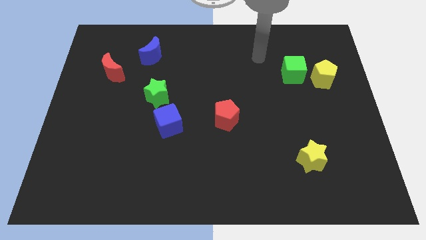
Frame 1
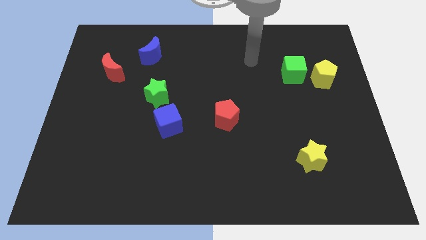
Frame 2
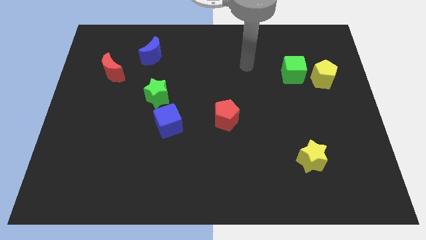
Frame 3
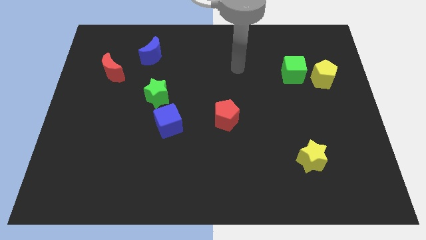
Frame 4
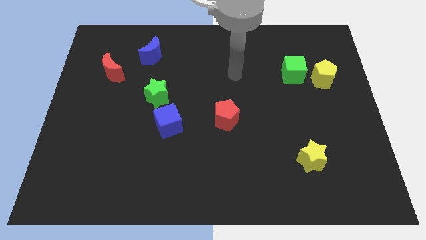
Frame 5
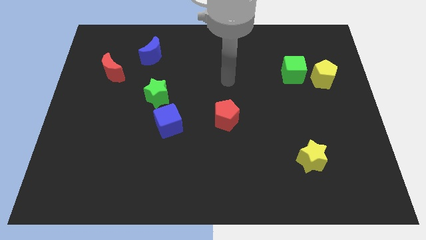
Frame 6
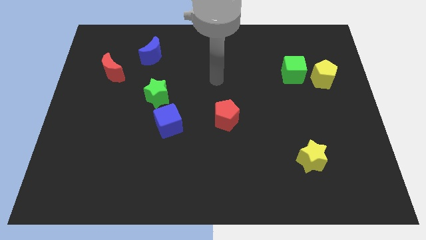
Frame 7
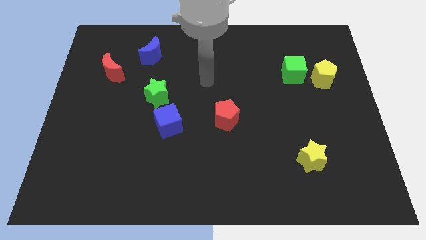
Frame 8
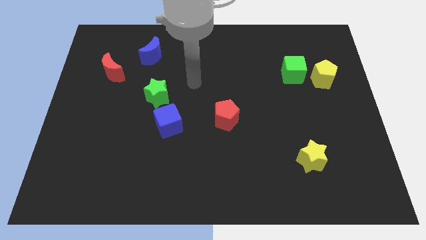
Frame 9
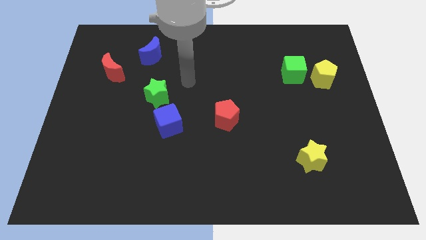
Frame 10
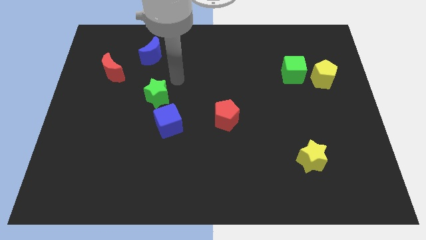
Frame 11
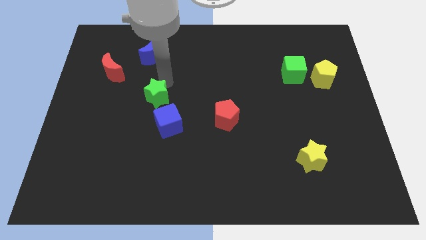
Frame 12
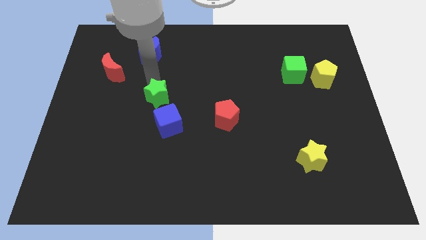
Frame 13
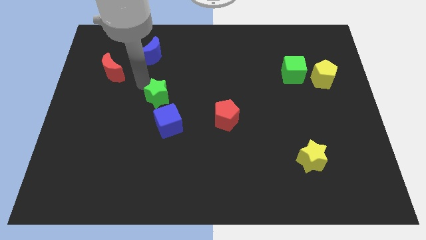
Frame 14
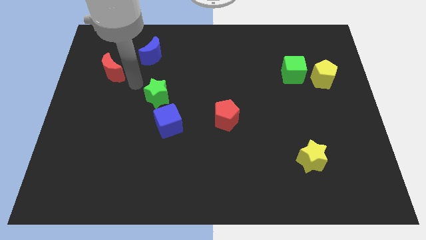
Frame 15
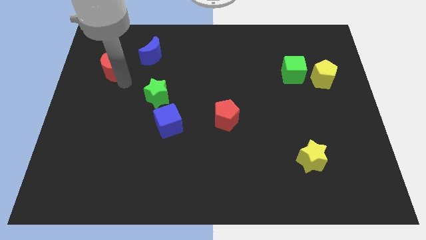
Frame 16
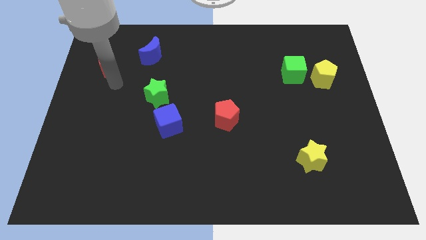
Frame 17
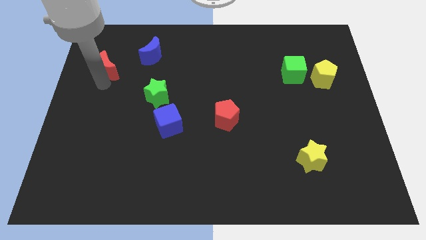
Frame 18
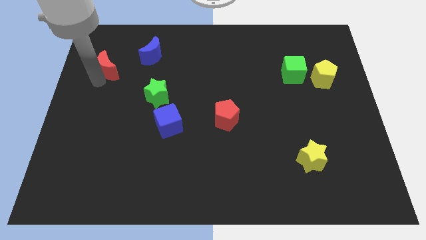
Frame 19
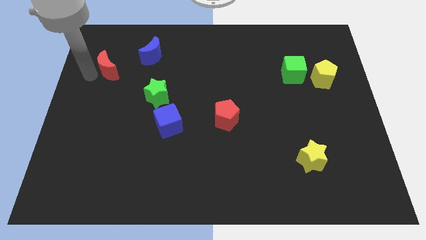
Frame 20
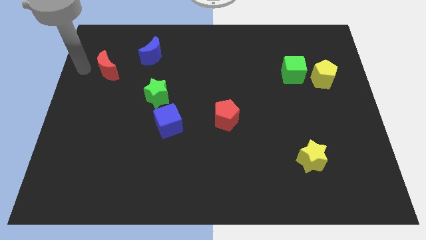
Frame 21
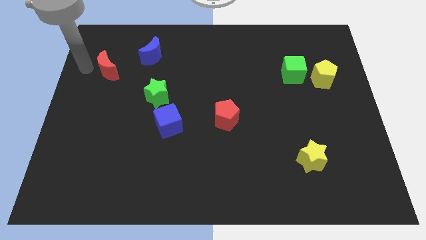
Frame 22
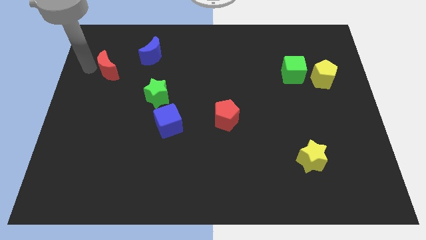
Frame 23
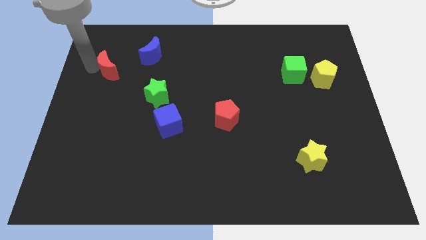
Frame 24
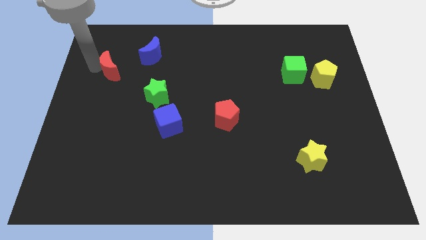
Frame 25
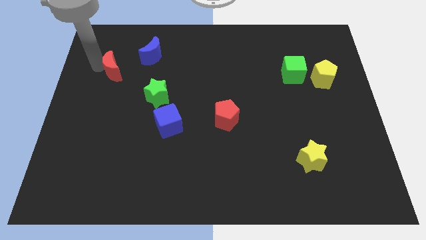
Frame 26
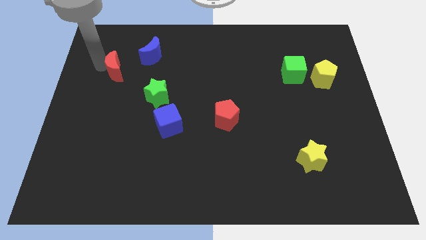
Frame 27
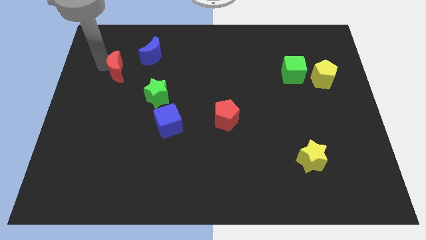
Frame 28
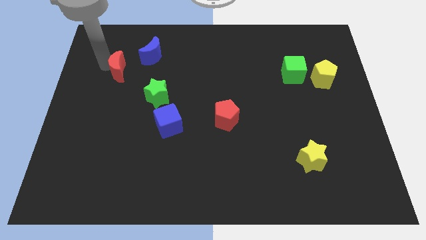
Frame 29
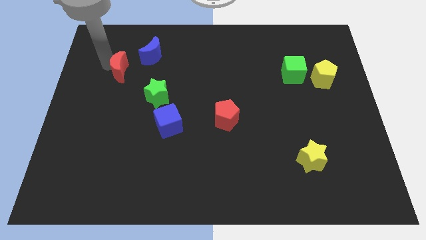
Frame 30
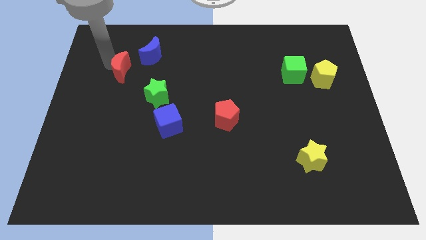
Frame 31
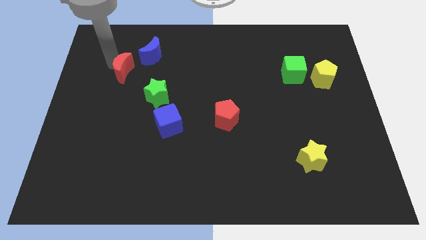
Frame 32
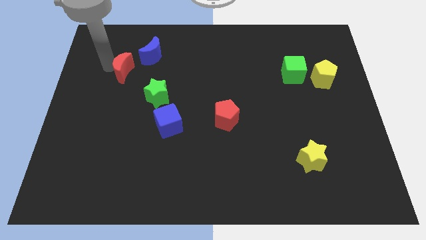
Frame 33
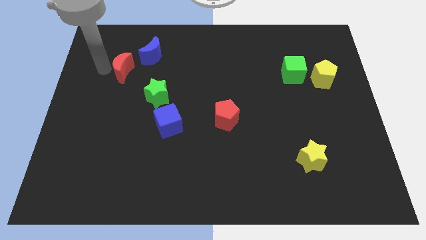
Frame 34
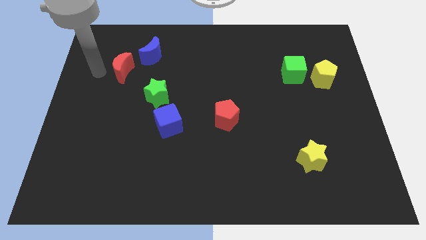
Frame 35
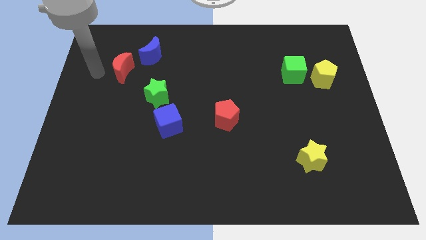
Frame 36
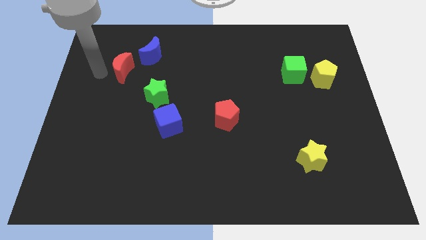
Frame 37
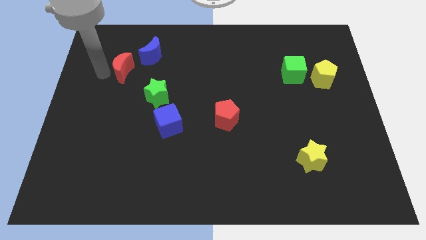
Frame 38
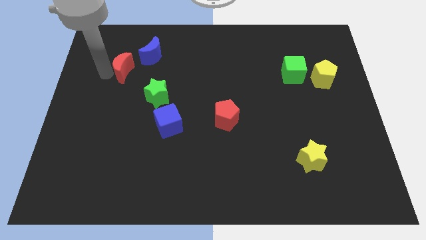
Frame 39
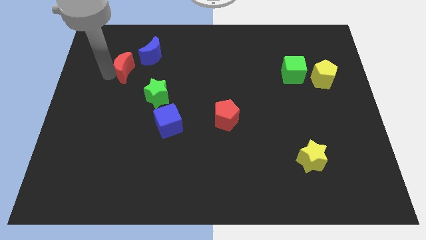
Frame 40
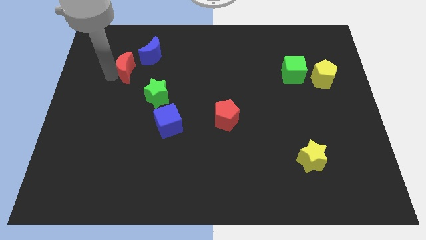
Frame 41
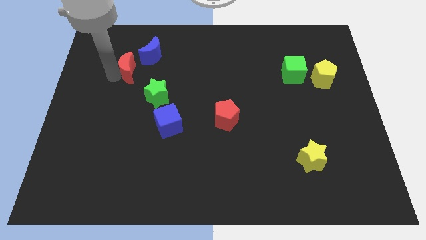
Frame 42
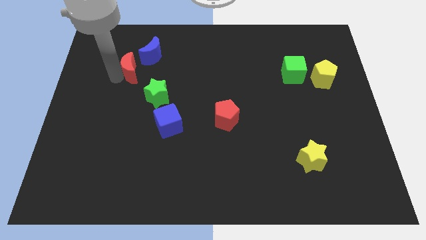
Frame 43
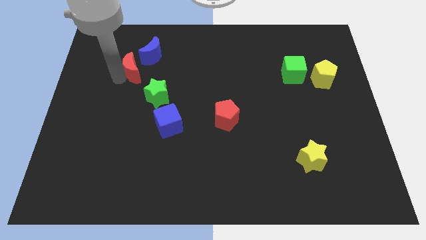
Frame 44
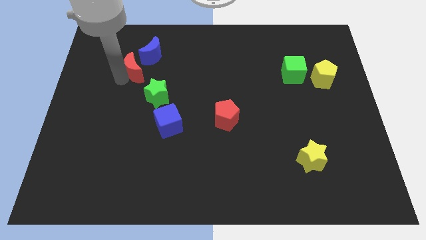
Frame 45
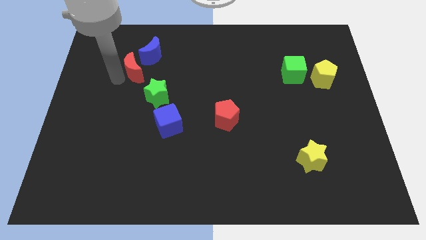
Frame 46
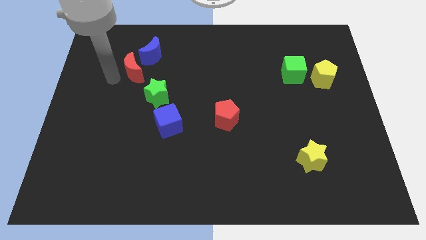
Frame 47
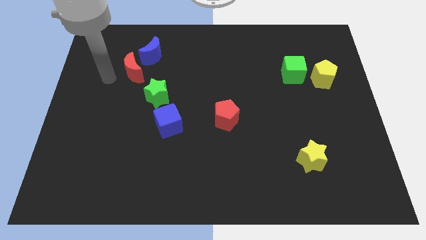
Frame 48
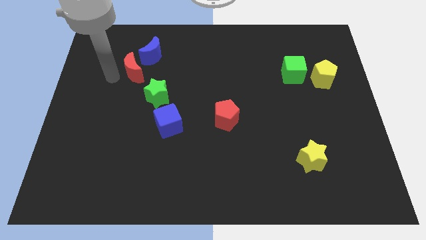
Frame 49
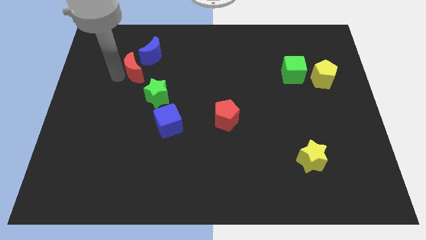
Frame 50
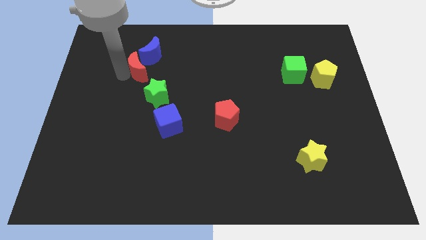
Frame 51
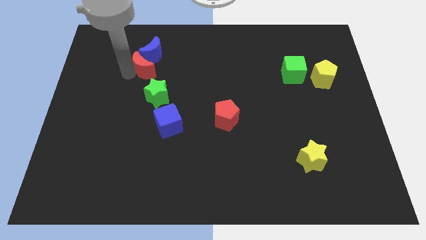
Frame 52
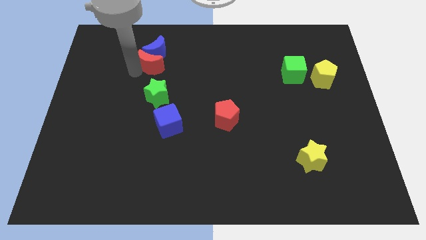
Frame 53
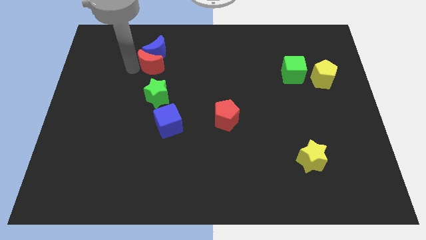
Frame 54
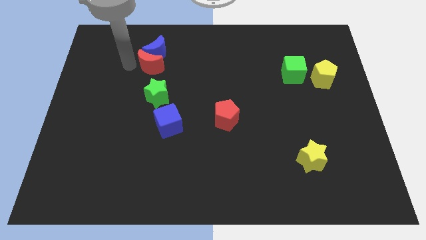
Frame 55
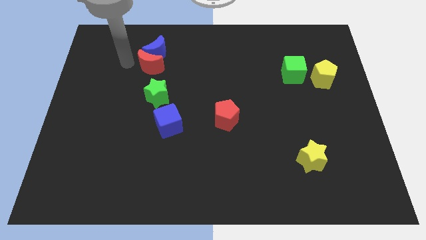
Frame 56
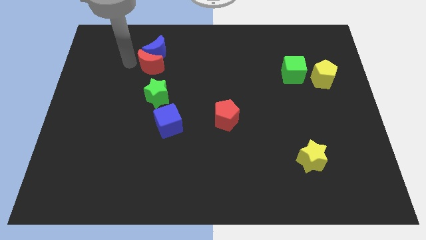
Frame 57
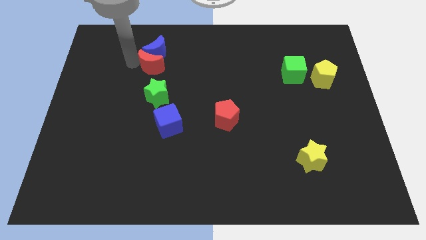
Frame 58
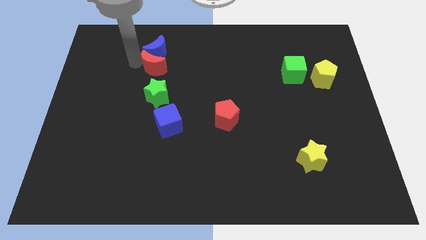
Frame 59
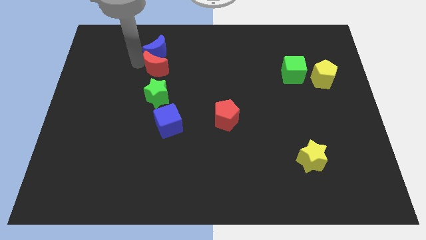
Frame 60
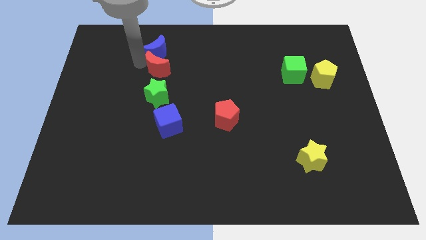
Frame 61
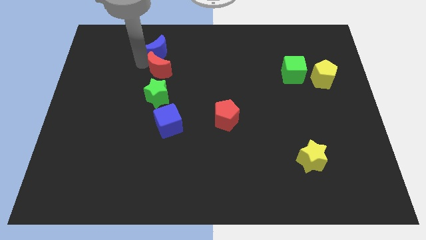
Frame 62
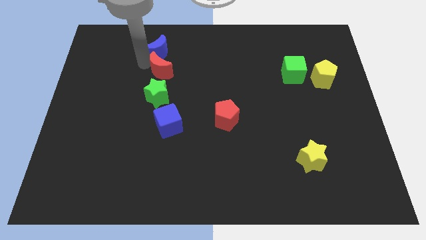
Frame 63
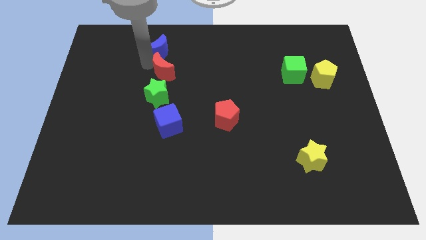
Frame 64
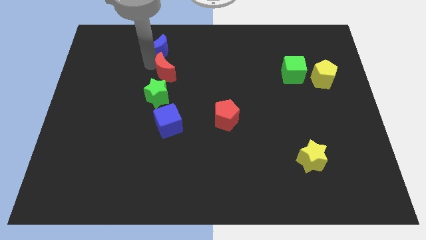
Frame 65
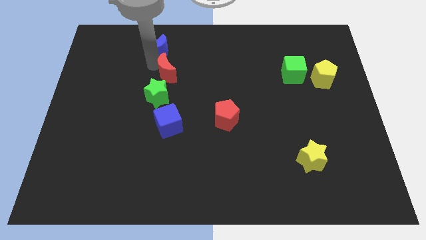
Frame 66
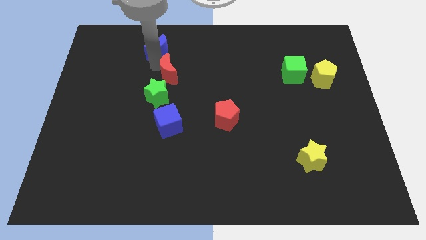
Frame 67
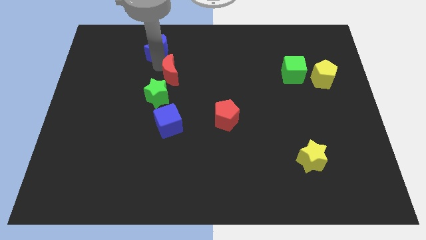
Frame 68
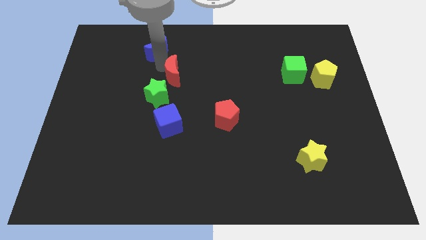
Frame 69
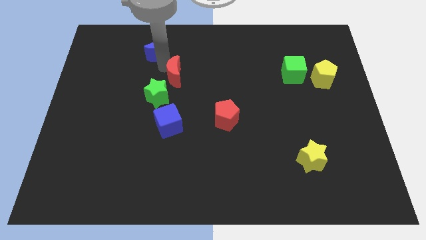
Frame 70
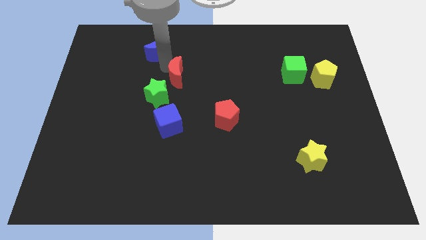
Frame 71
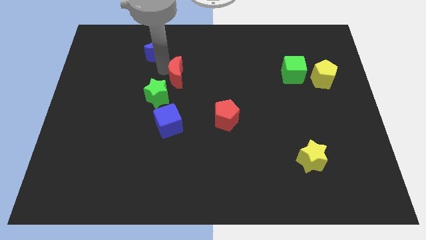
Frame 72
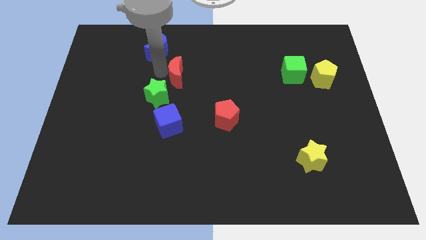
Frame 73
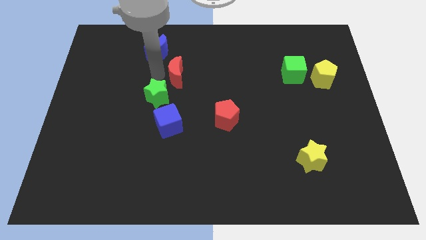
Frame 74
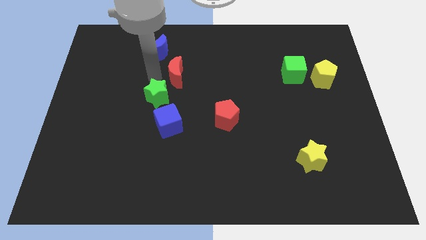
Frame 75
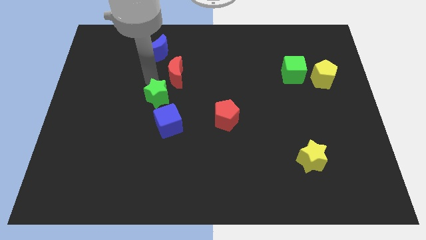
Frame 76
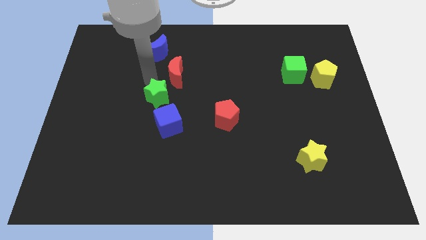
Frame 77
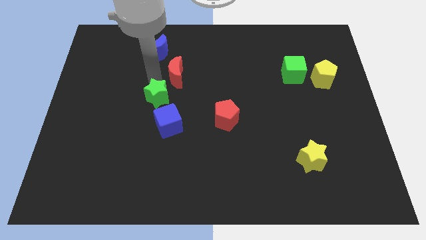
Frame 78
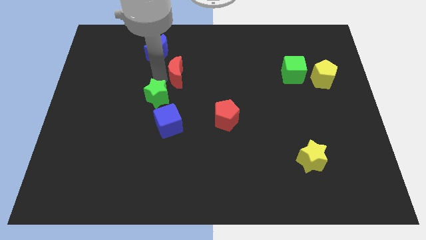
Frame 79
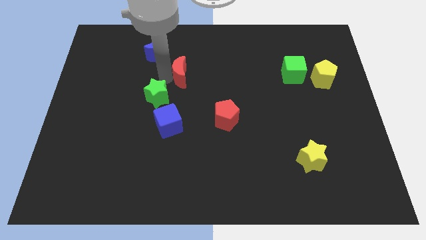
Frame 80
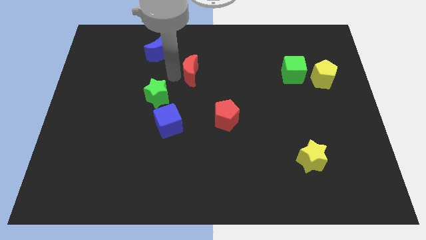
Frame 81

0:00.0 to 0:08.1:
push the red moon to the right
